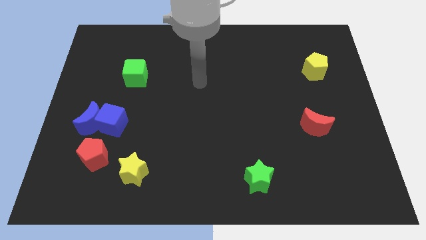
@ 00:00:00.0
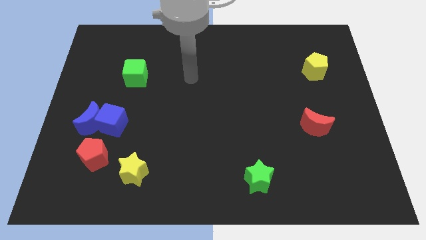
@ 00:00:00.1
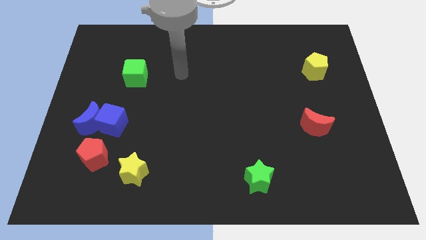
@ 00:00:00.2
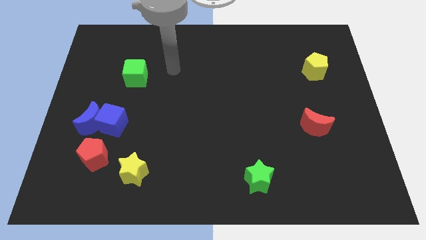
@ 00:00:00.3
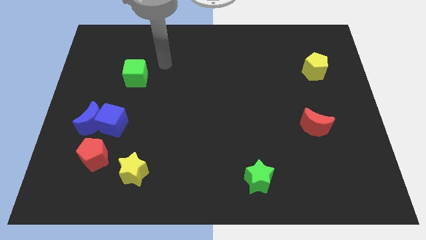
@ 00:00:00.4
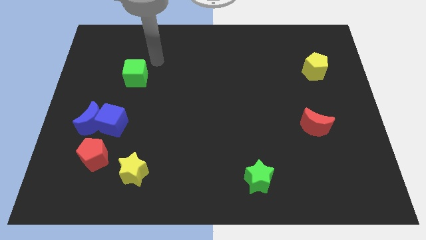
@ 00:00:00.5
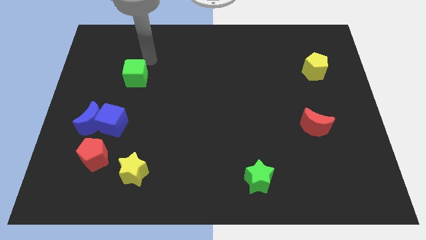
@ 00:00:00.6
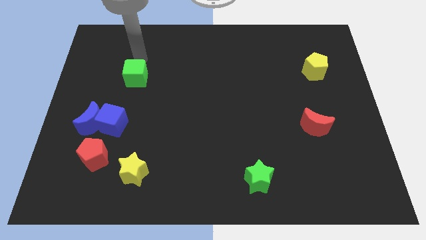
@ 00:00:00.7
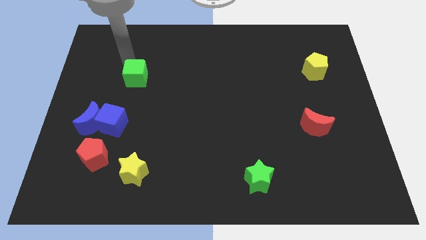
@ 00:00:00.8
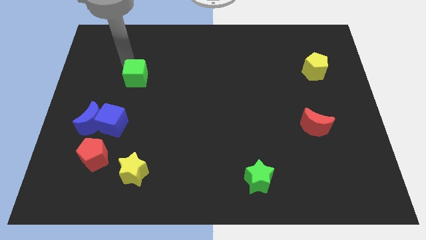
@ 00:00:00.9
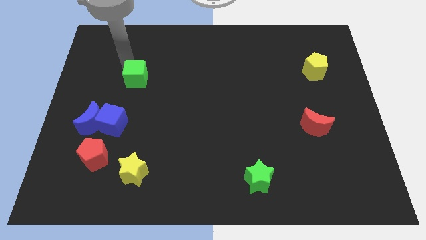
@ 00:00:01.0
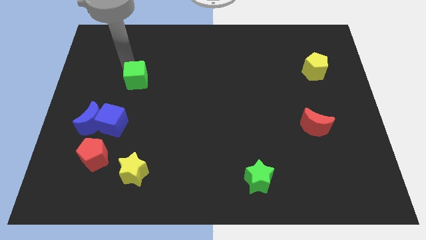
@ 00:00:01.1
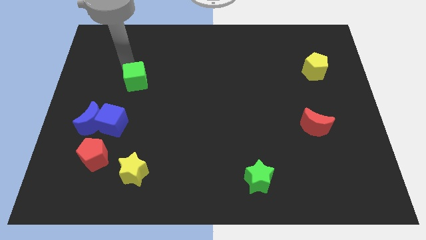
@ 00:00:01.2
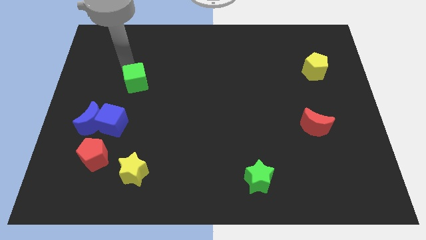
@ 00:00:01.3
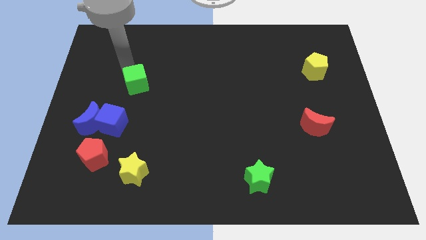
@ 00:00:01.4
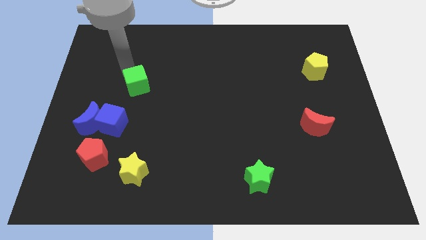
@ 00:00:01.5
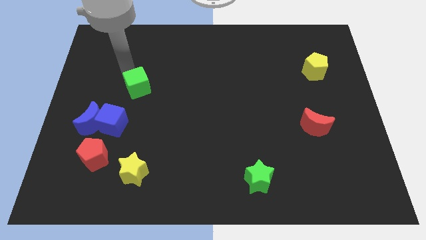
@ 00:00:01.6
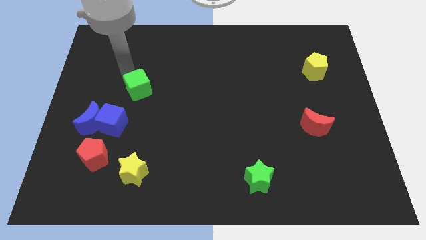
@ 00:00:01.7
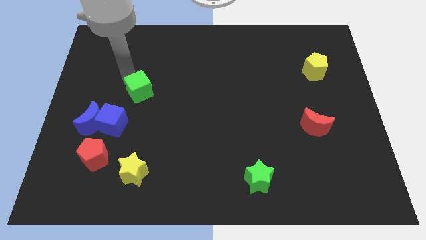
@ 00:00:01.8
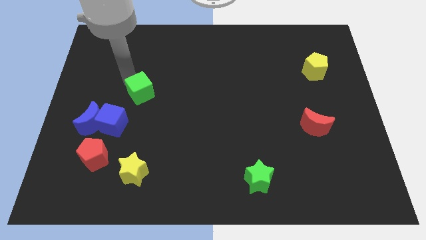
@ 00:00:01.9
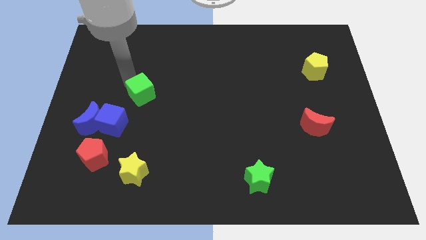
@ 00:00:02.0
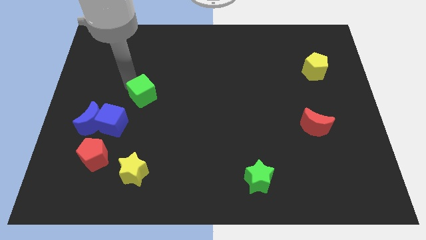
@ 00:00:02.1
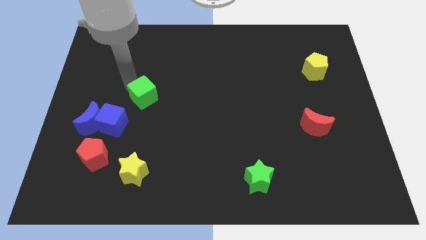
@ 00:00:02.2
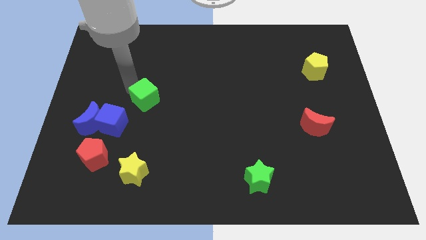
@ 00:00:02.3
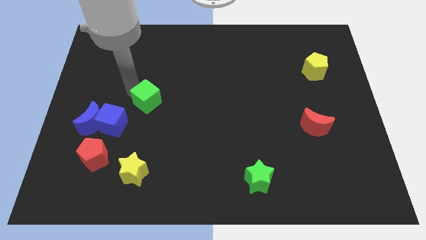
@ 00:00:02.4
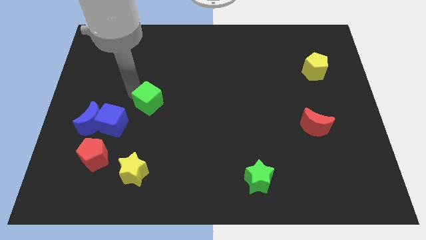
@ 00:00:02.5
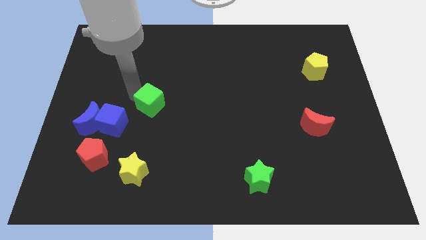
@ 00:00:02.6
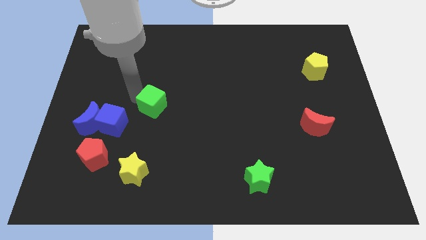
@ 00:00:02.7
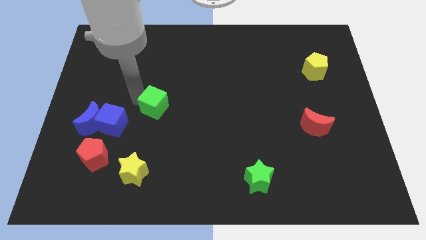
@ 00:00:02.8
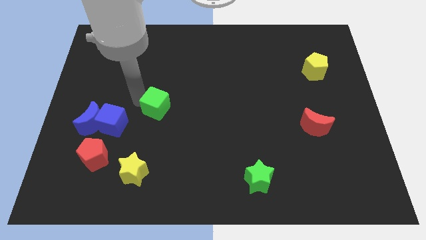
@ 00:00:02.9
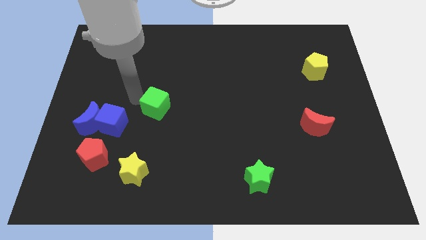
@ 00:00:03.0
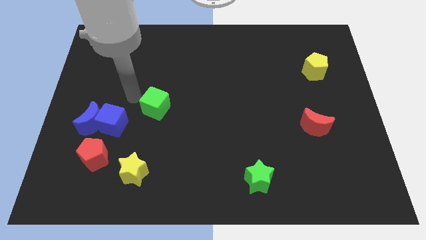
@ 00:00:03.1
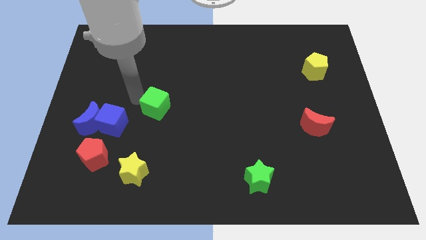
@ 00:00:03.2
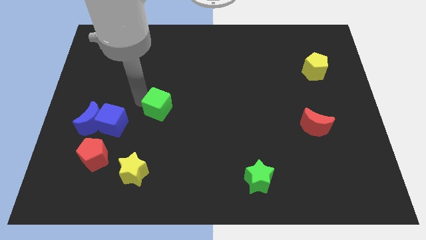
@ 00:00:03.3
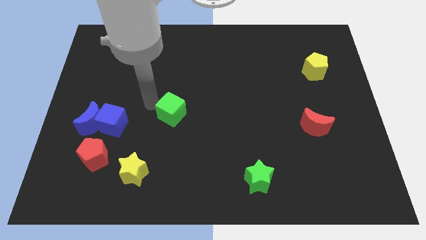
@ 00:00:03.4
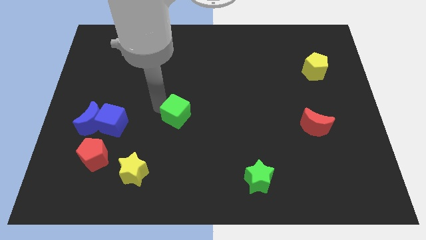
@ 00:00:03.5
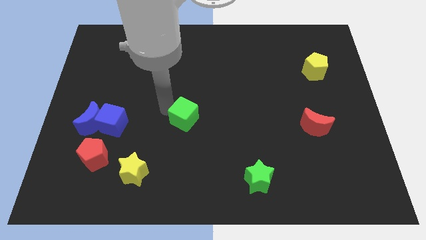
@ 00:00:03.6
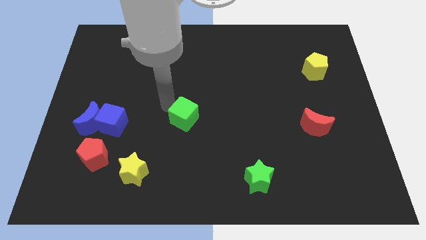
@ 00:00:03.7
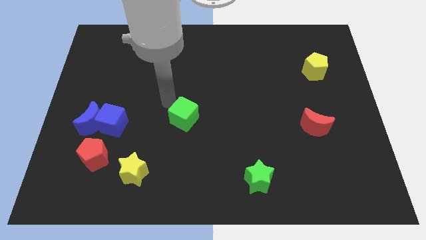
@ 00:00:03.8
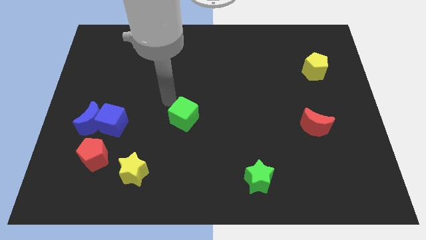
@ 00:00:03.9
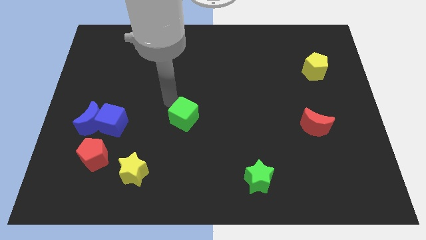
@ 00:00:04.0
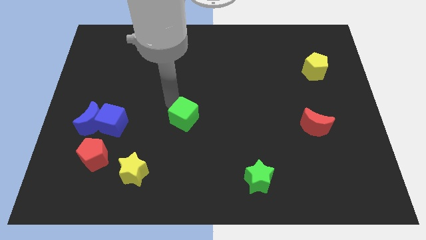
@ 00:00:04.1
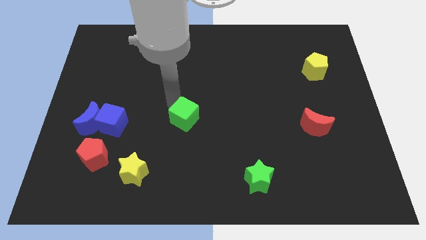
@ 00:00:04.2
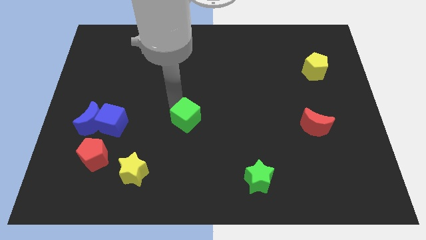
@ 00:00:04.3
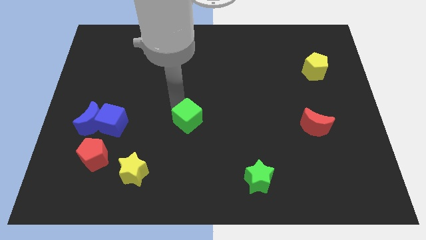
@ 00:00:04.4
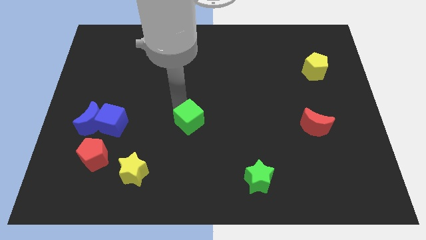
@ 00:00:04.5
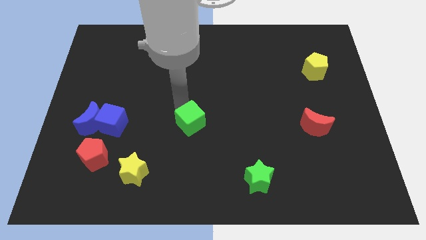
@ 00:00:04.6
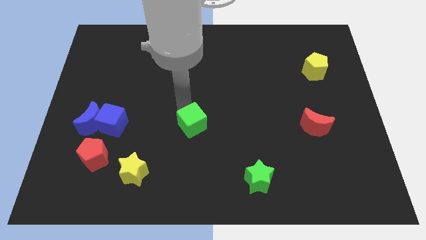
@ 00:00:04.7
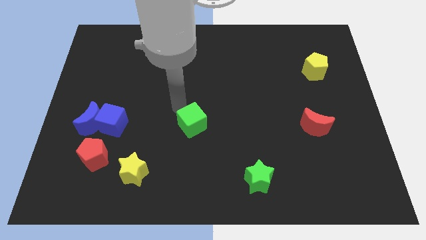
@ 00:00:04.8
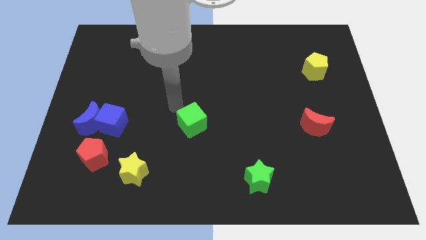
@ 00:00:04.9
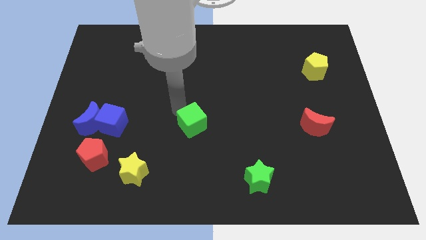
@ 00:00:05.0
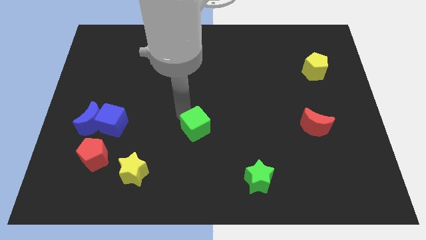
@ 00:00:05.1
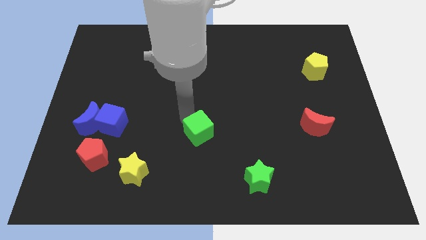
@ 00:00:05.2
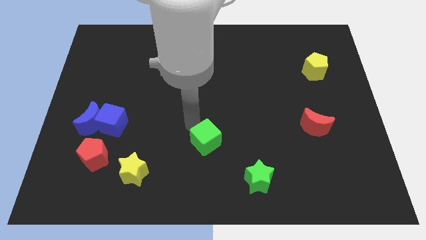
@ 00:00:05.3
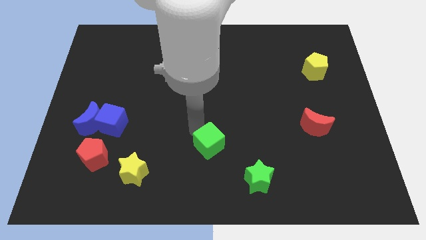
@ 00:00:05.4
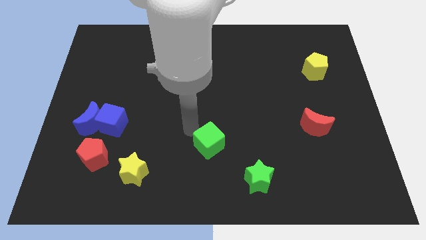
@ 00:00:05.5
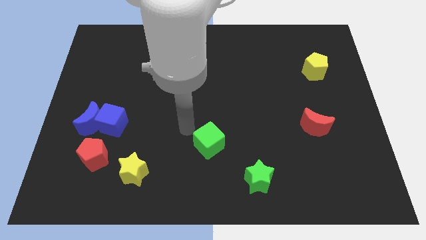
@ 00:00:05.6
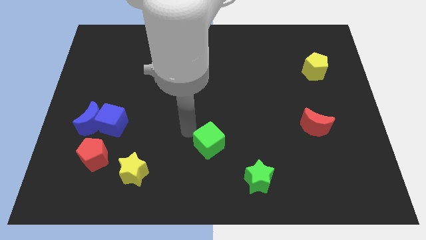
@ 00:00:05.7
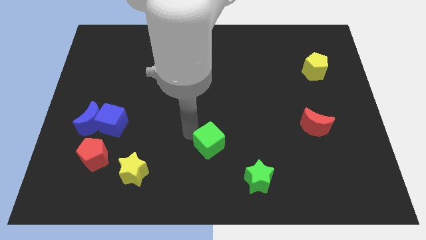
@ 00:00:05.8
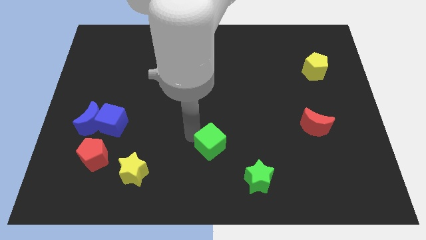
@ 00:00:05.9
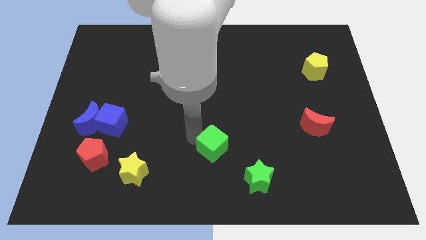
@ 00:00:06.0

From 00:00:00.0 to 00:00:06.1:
move the green cube to the top left of the green star
